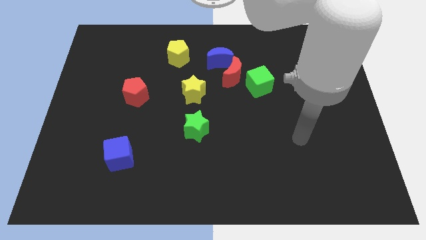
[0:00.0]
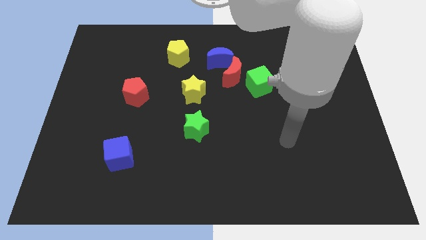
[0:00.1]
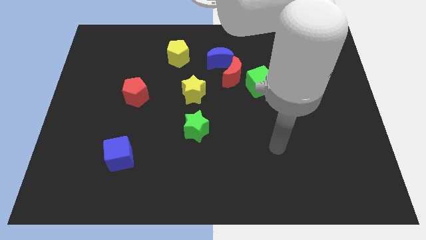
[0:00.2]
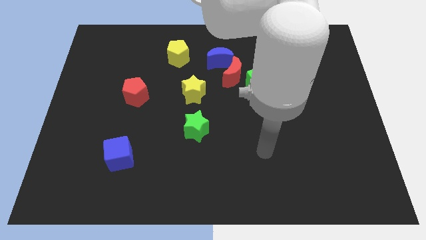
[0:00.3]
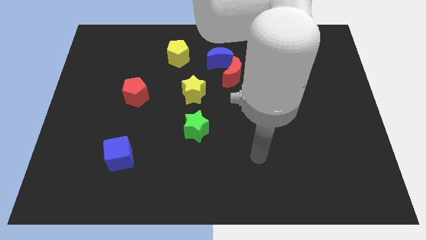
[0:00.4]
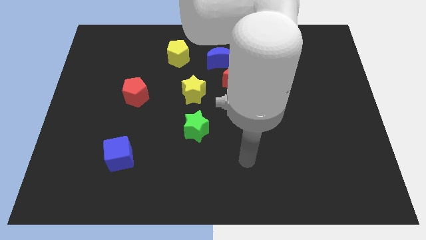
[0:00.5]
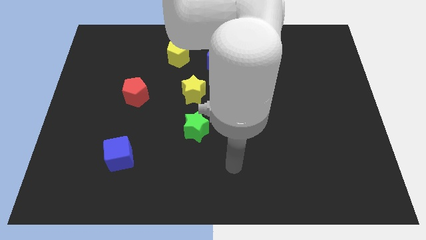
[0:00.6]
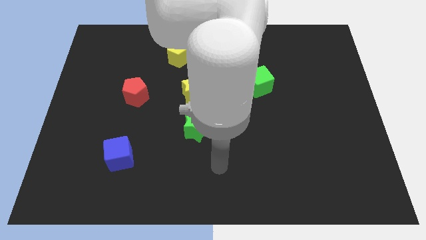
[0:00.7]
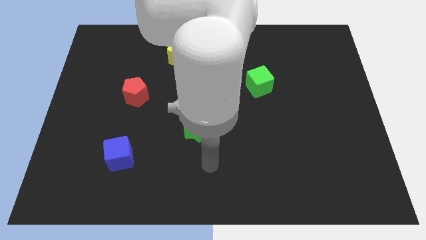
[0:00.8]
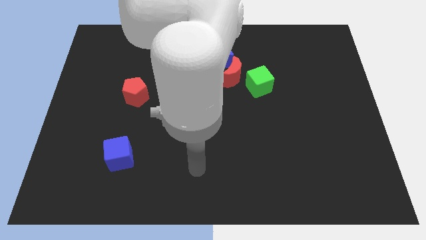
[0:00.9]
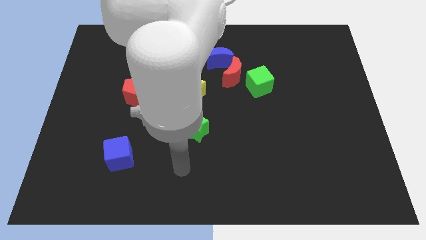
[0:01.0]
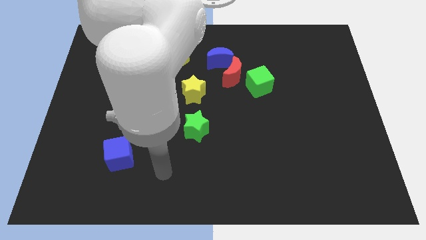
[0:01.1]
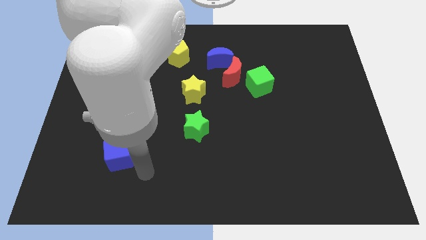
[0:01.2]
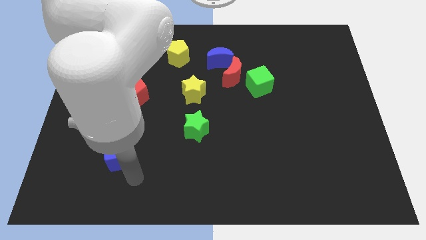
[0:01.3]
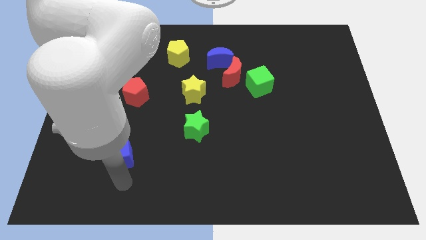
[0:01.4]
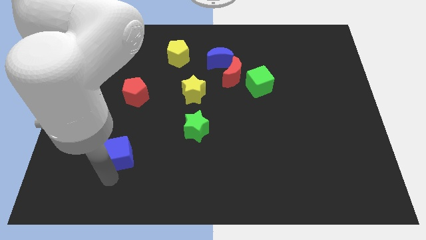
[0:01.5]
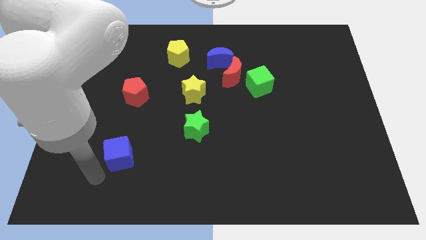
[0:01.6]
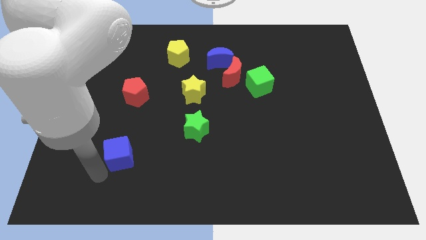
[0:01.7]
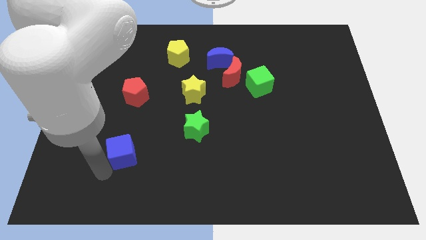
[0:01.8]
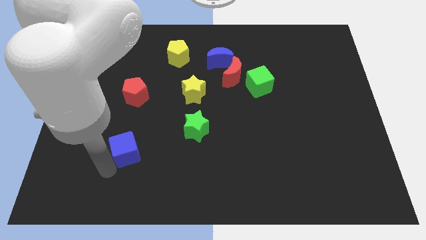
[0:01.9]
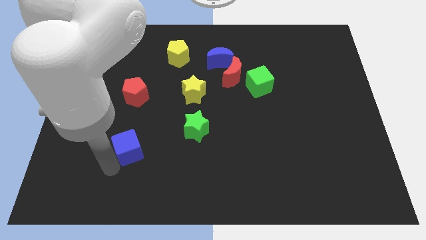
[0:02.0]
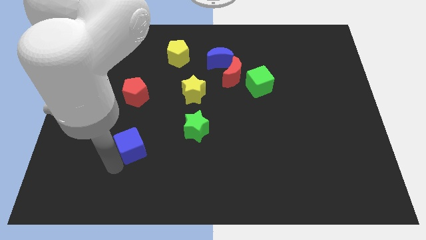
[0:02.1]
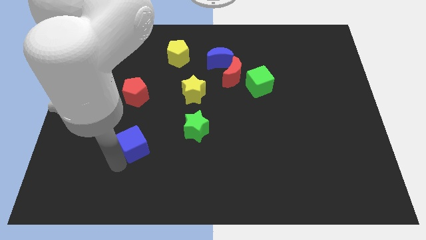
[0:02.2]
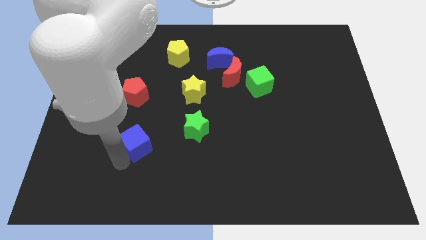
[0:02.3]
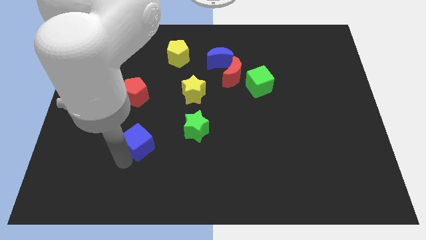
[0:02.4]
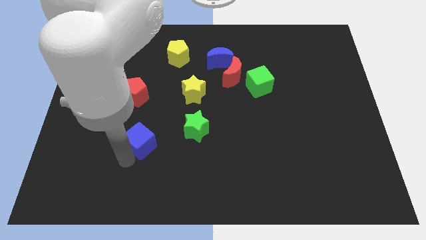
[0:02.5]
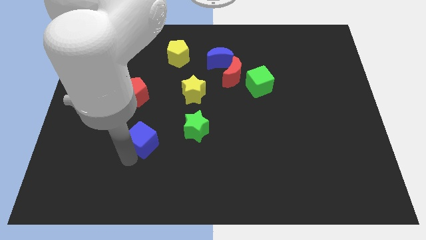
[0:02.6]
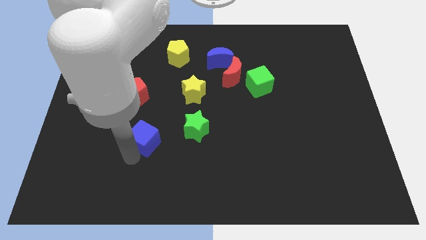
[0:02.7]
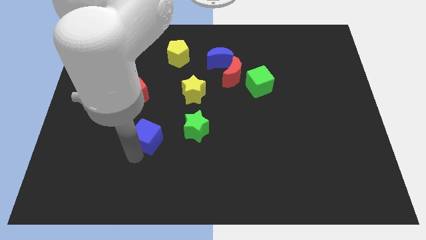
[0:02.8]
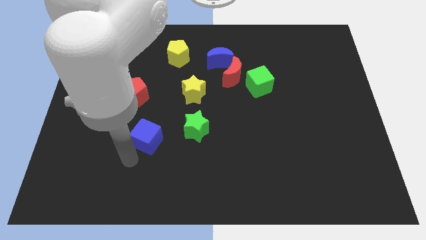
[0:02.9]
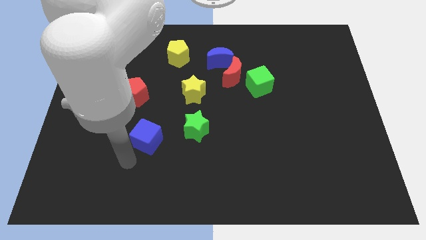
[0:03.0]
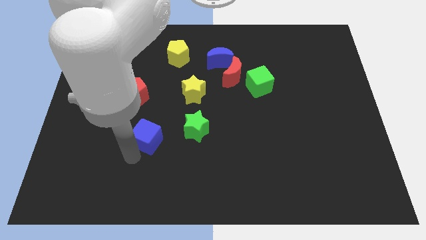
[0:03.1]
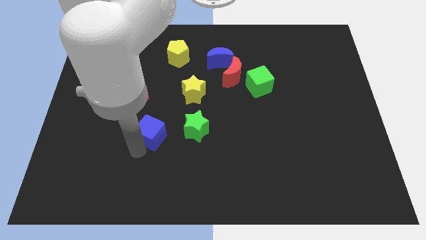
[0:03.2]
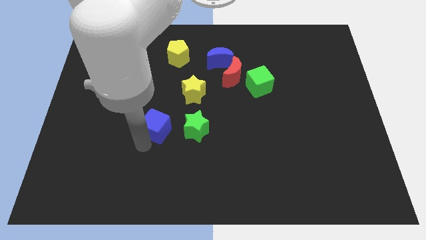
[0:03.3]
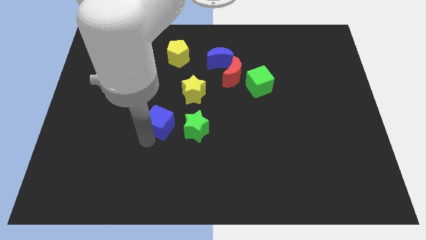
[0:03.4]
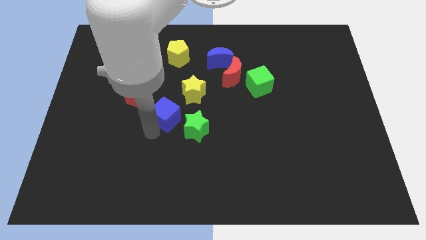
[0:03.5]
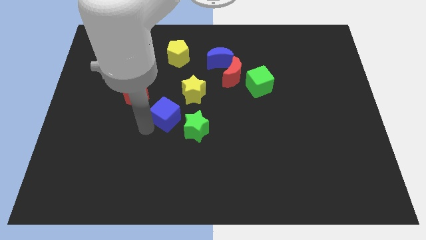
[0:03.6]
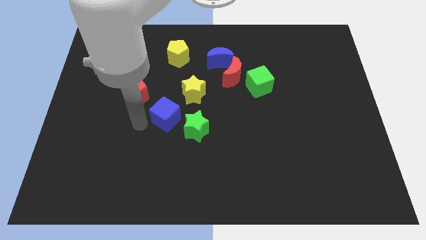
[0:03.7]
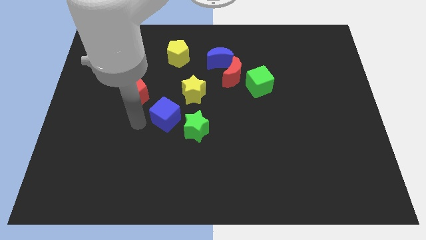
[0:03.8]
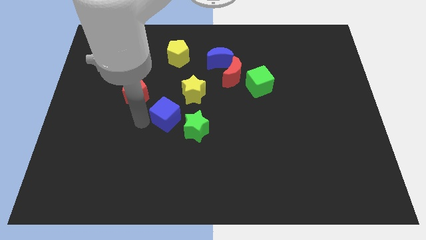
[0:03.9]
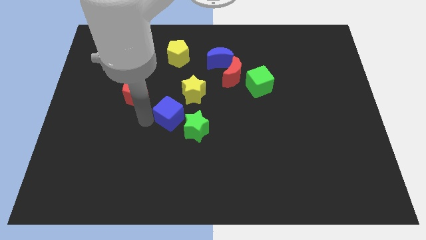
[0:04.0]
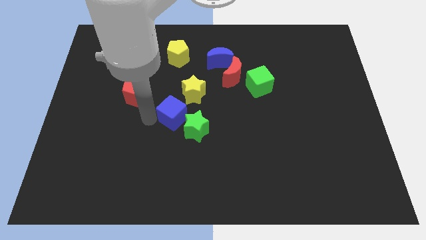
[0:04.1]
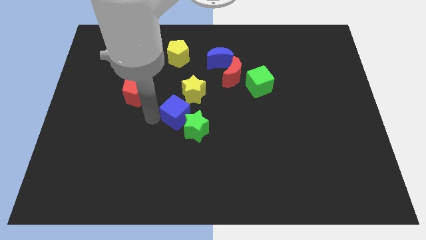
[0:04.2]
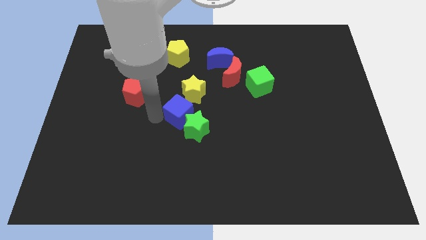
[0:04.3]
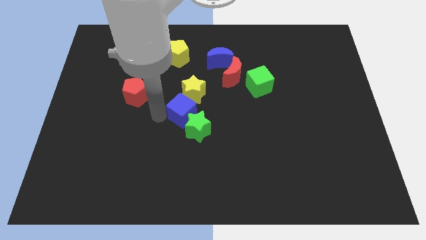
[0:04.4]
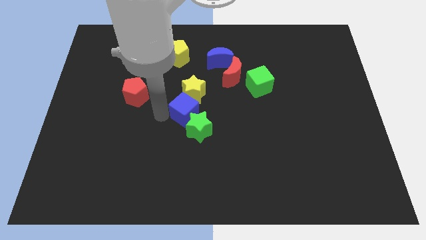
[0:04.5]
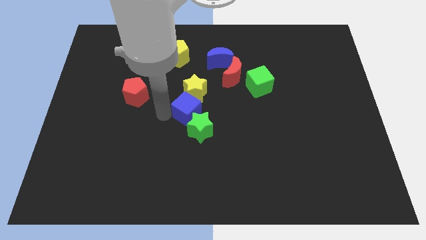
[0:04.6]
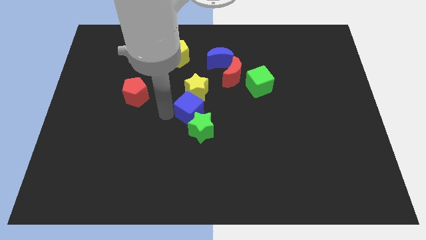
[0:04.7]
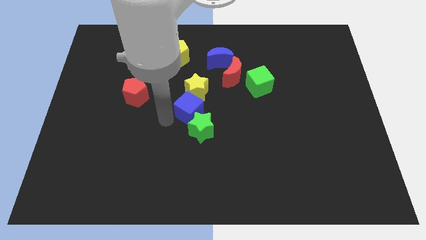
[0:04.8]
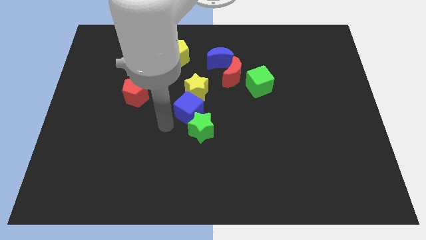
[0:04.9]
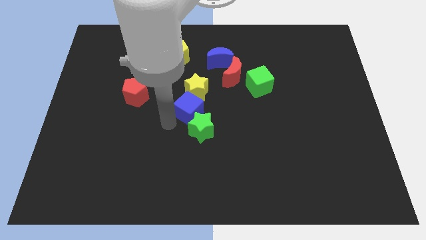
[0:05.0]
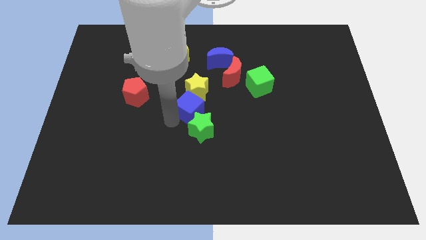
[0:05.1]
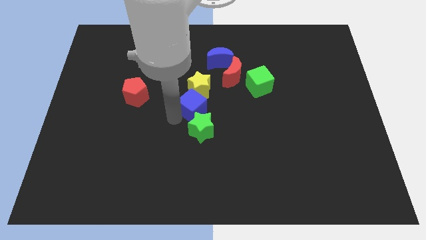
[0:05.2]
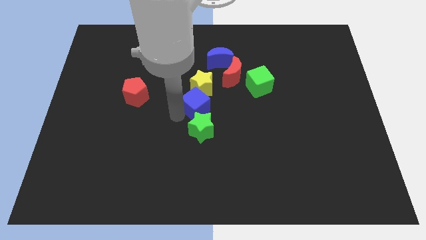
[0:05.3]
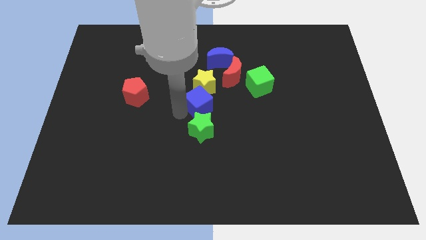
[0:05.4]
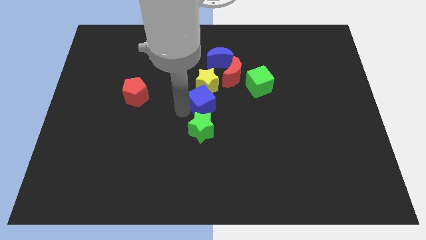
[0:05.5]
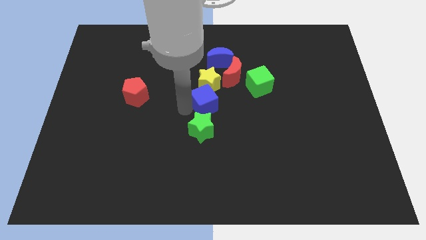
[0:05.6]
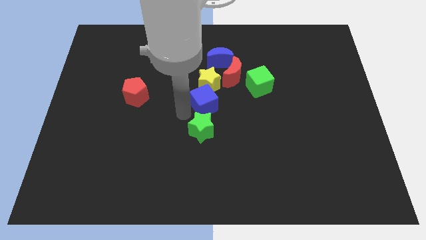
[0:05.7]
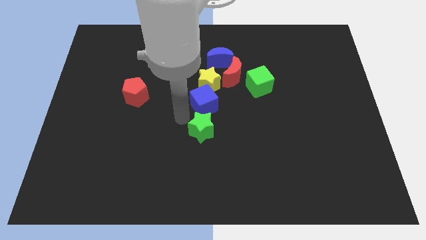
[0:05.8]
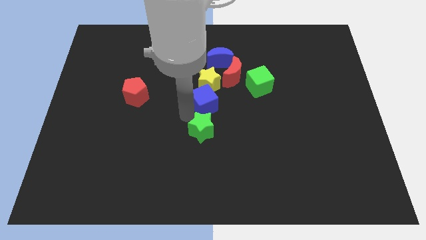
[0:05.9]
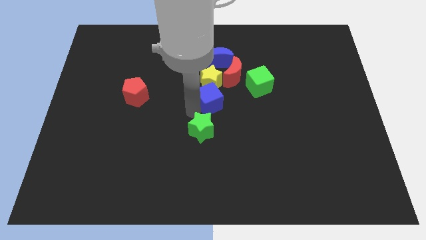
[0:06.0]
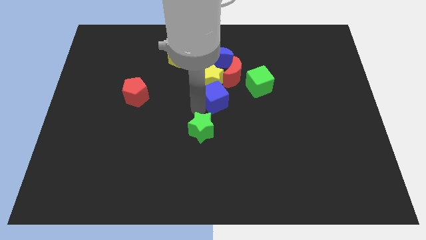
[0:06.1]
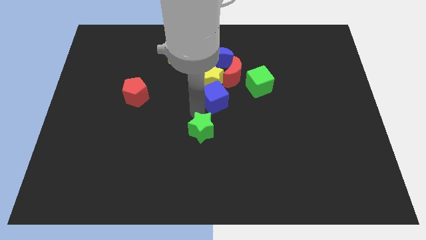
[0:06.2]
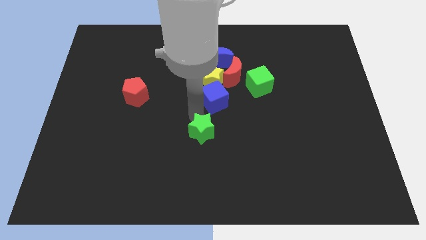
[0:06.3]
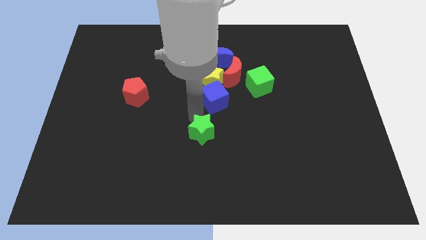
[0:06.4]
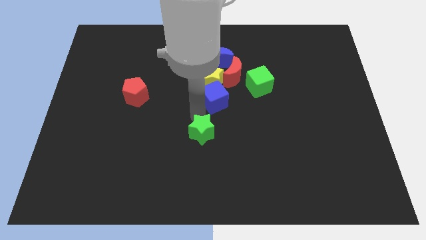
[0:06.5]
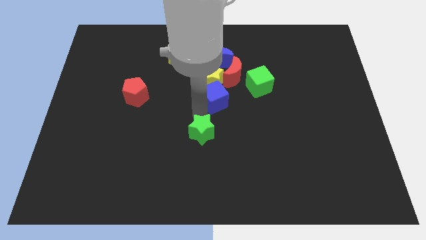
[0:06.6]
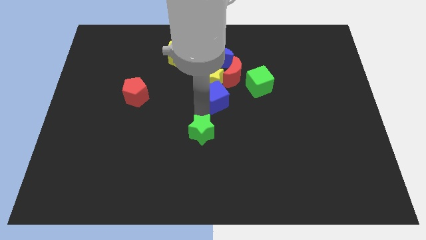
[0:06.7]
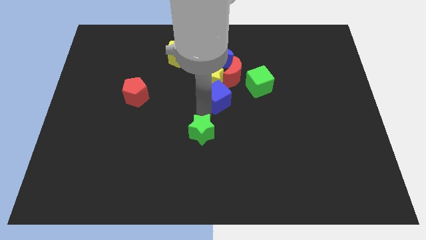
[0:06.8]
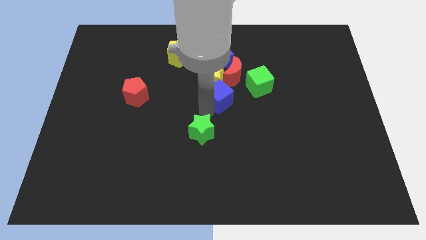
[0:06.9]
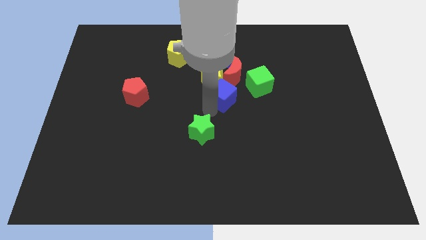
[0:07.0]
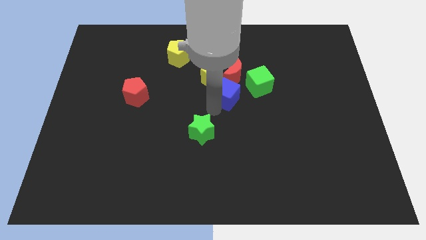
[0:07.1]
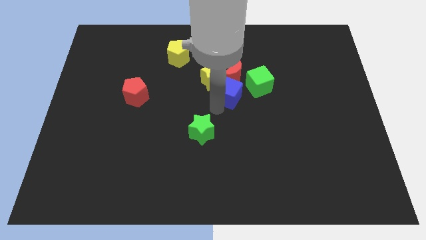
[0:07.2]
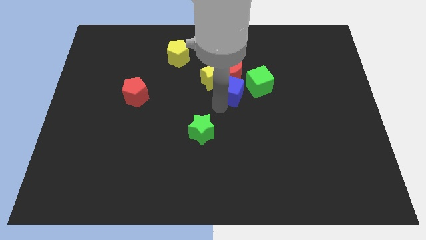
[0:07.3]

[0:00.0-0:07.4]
slide the blue cube towards the red moon
